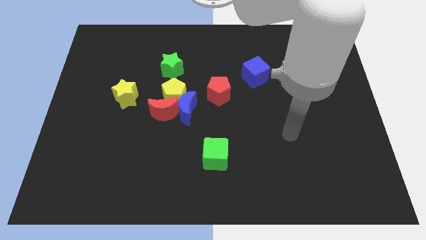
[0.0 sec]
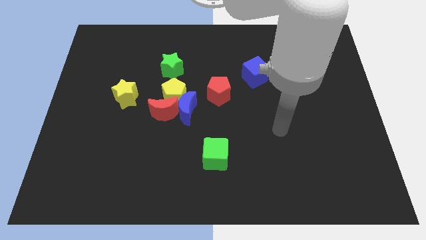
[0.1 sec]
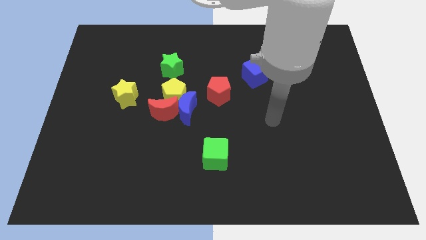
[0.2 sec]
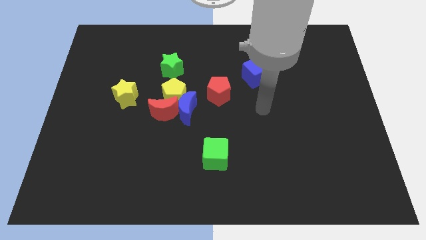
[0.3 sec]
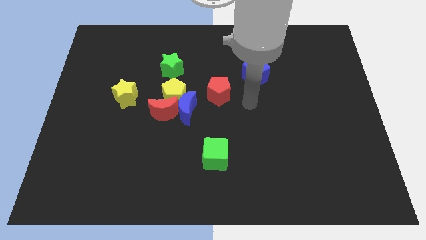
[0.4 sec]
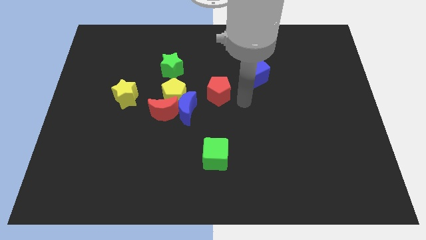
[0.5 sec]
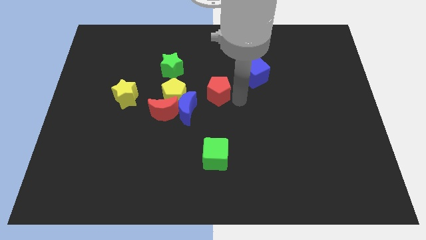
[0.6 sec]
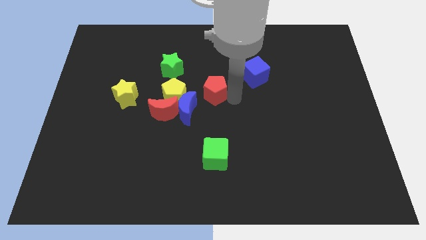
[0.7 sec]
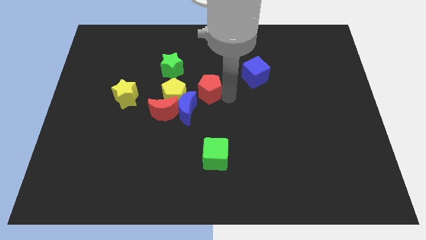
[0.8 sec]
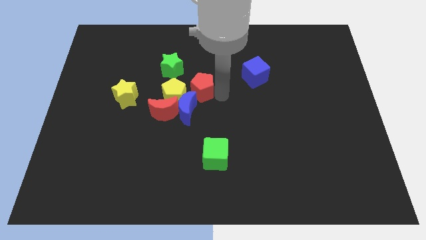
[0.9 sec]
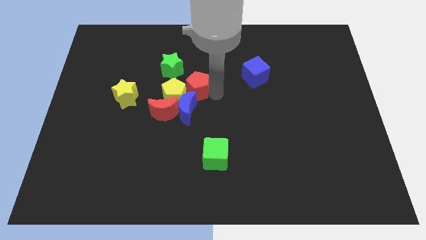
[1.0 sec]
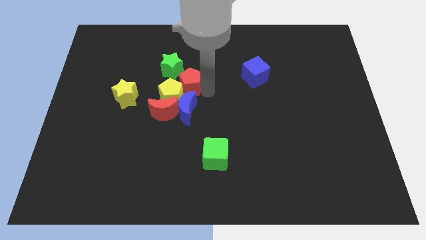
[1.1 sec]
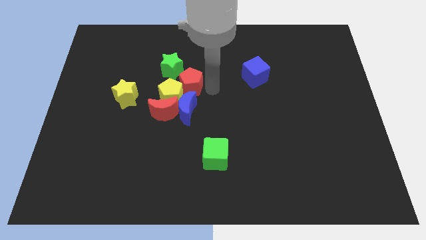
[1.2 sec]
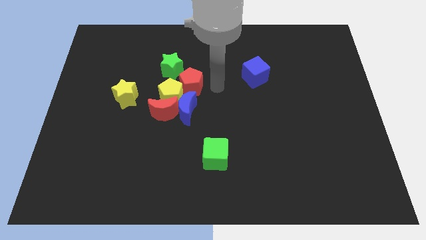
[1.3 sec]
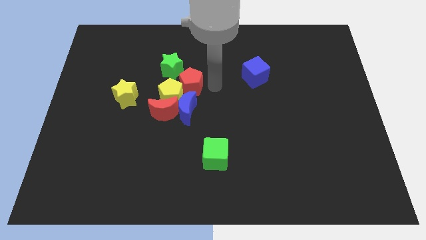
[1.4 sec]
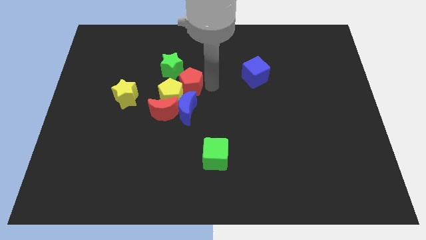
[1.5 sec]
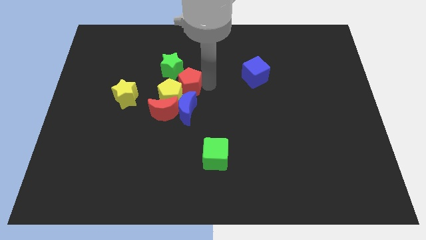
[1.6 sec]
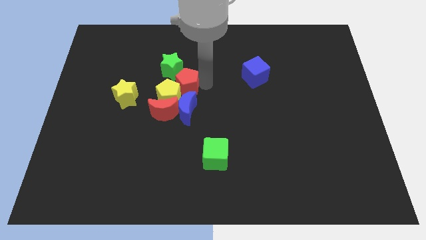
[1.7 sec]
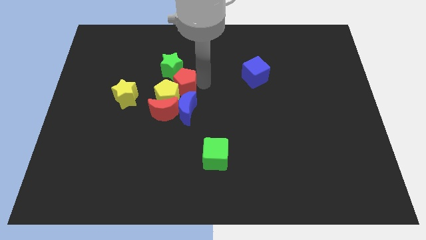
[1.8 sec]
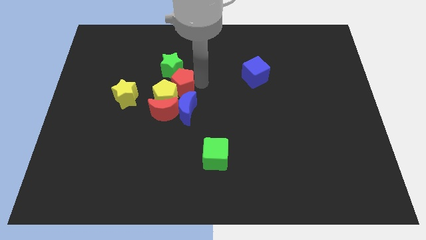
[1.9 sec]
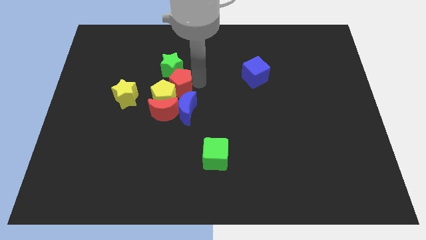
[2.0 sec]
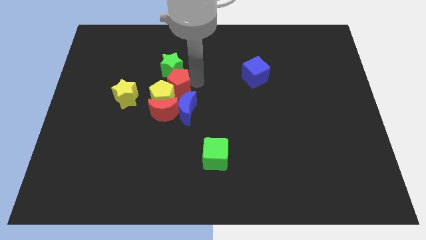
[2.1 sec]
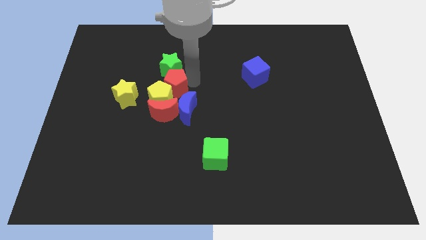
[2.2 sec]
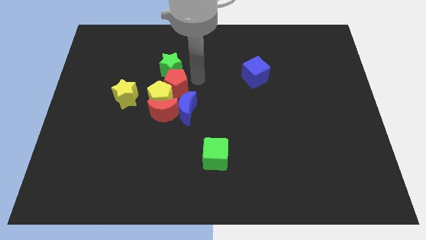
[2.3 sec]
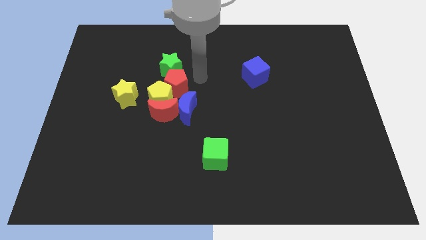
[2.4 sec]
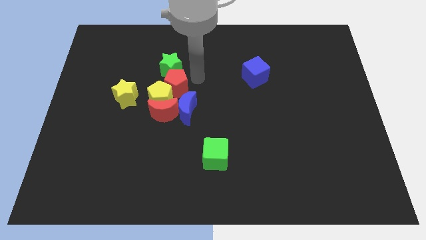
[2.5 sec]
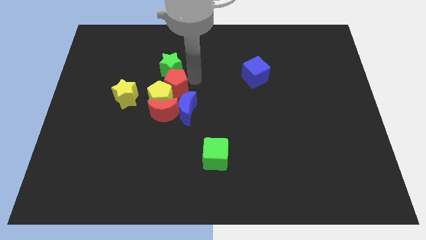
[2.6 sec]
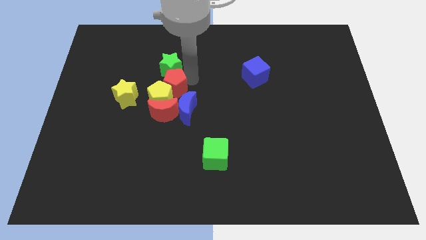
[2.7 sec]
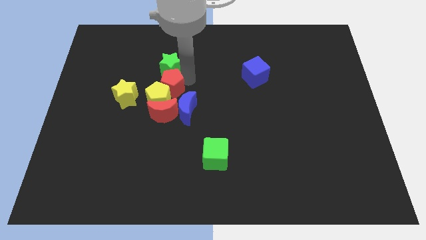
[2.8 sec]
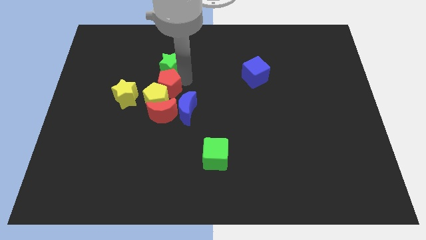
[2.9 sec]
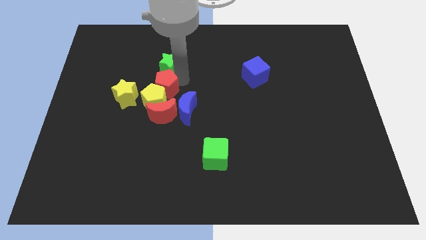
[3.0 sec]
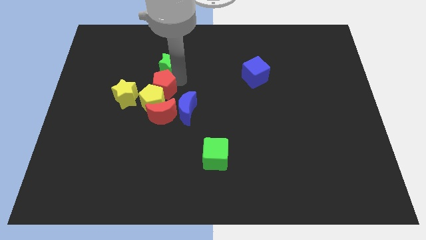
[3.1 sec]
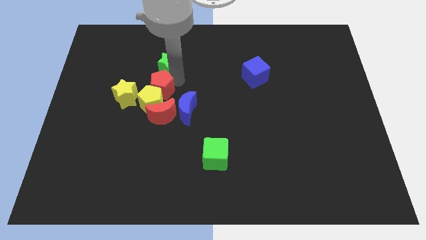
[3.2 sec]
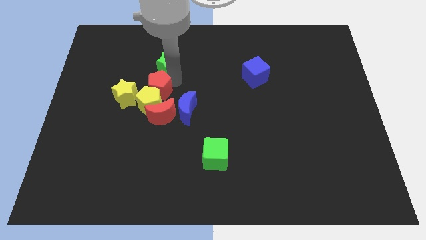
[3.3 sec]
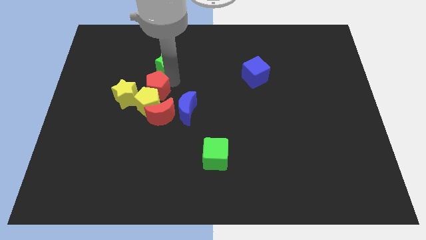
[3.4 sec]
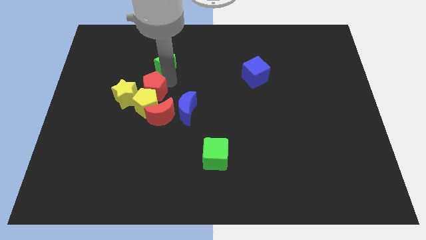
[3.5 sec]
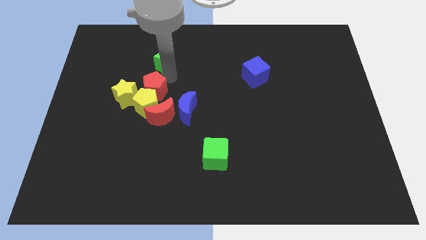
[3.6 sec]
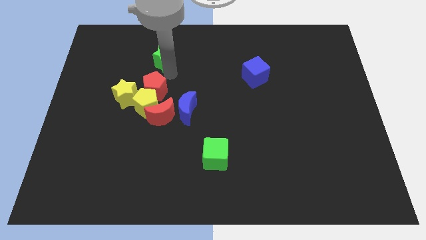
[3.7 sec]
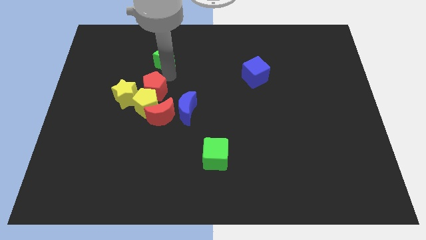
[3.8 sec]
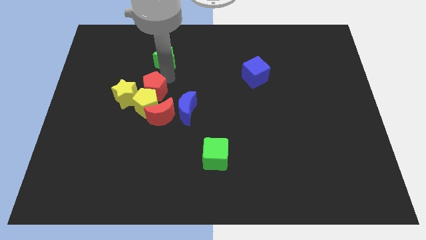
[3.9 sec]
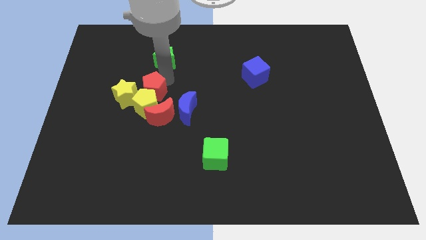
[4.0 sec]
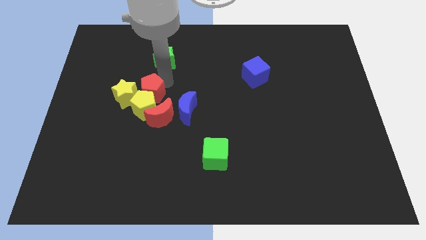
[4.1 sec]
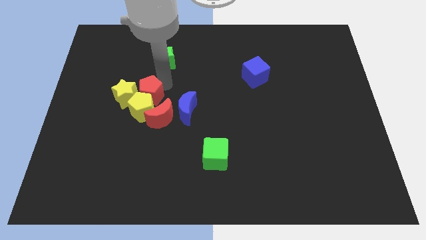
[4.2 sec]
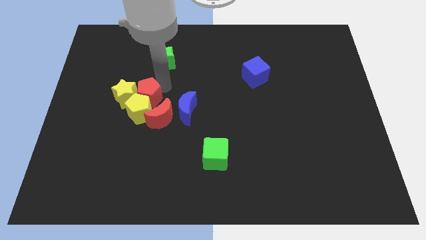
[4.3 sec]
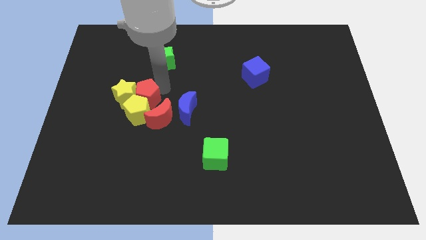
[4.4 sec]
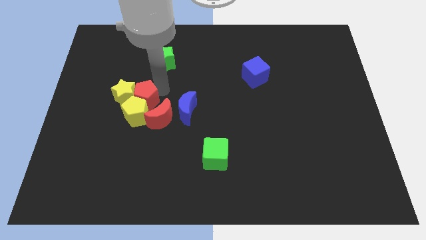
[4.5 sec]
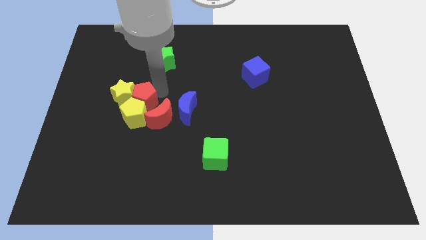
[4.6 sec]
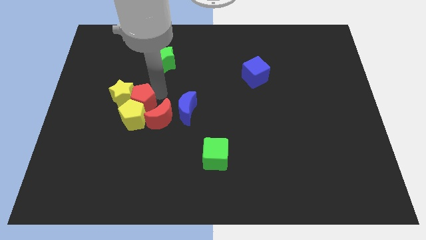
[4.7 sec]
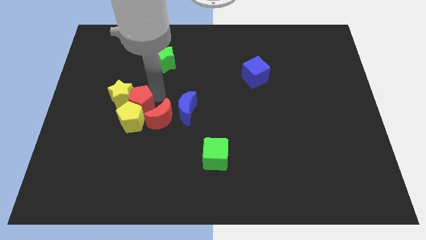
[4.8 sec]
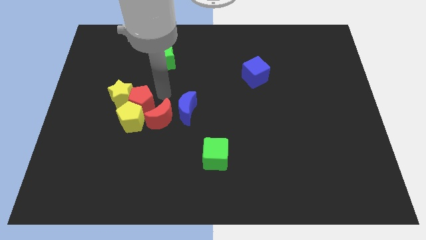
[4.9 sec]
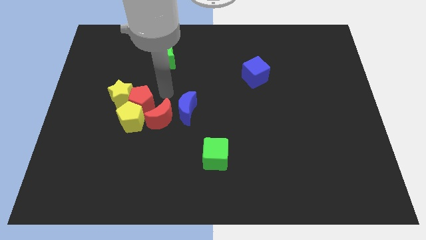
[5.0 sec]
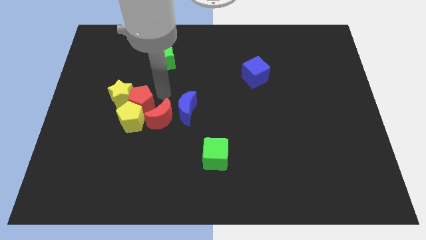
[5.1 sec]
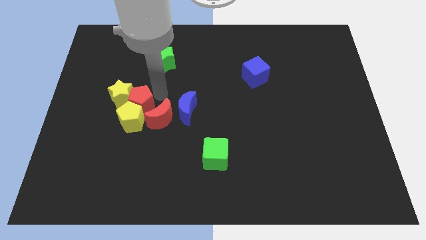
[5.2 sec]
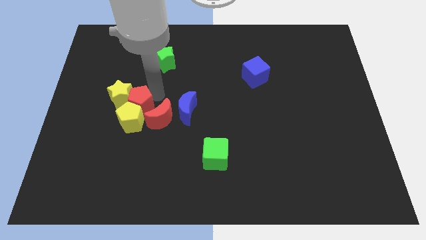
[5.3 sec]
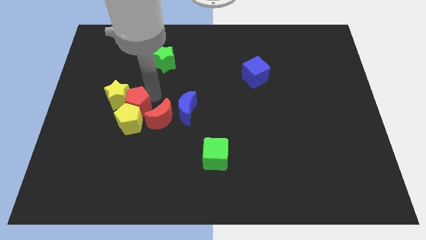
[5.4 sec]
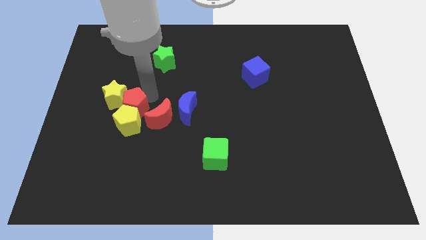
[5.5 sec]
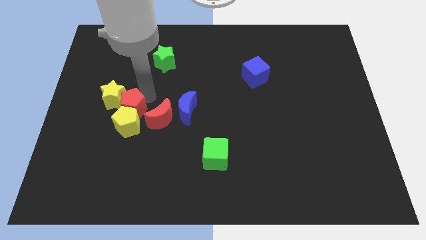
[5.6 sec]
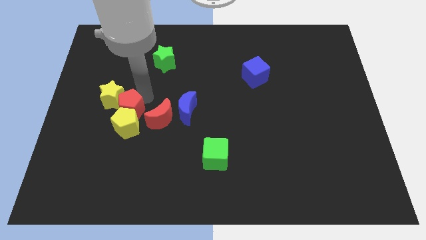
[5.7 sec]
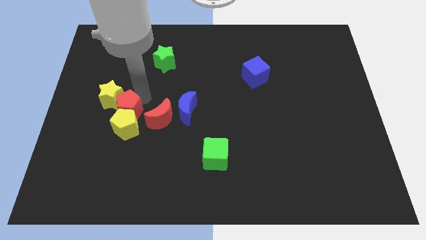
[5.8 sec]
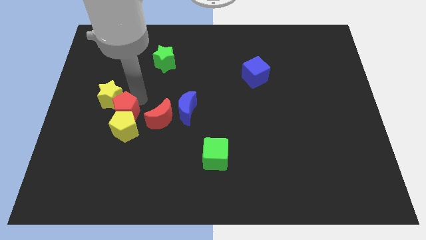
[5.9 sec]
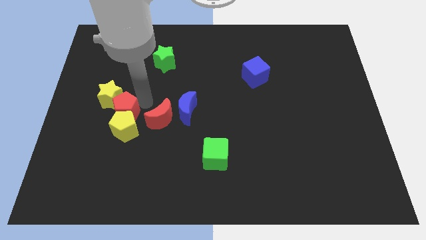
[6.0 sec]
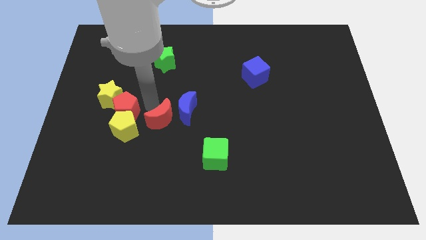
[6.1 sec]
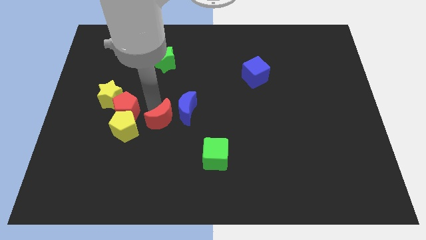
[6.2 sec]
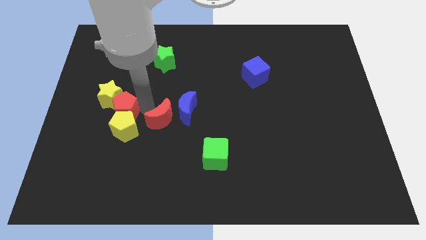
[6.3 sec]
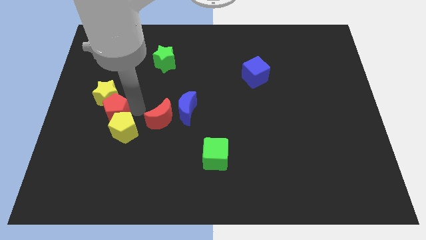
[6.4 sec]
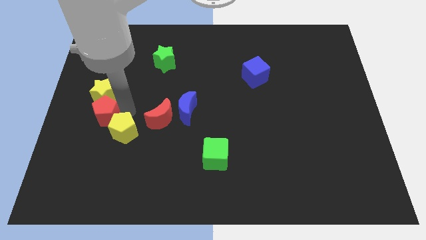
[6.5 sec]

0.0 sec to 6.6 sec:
push the red pentagon to the bottom left side of the yellow star

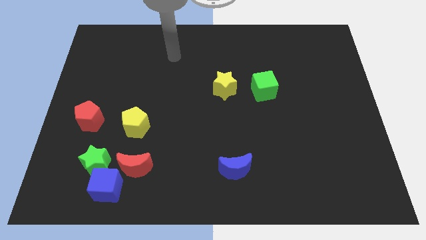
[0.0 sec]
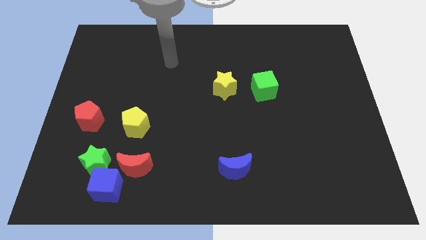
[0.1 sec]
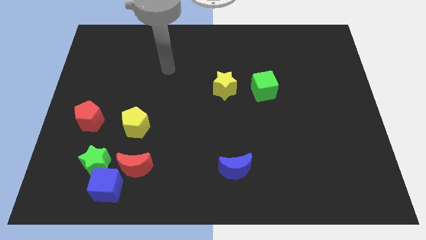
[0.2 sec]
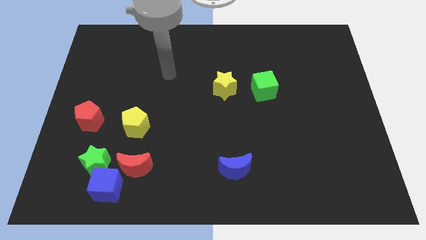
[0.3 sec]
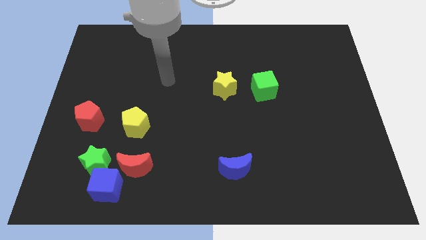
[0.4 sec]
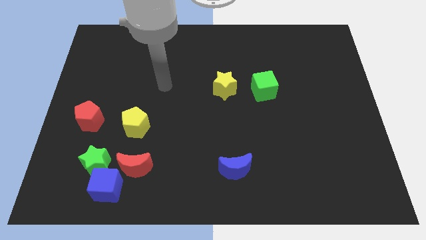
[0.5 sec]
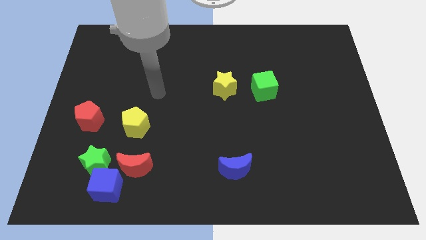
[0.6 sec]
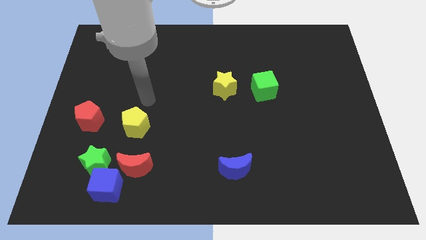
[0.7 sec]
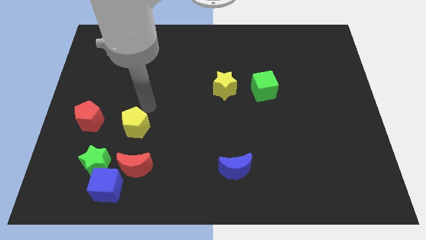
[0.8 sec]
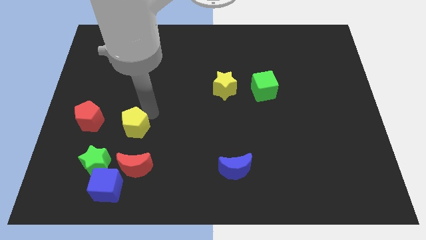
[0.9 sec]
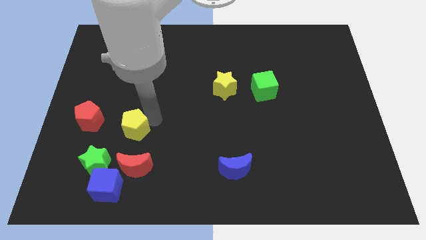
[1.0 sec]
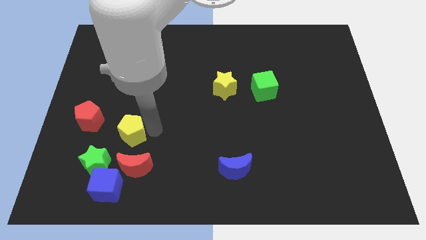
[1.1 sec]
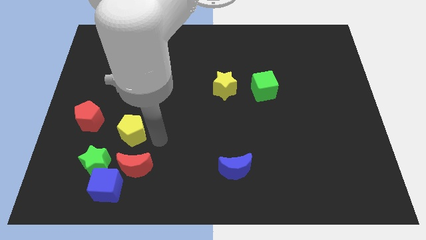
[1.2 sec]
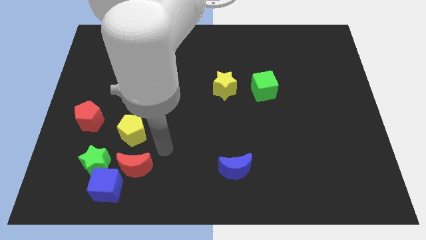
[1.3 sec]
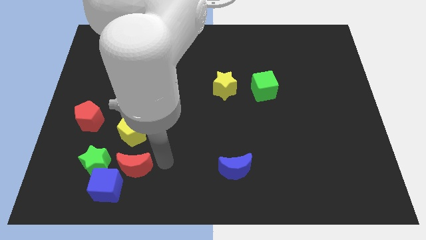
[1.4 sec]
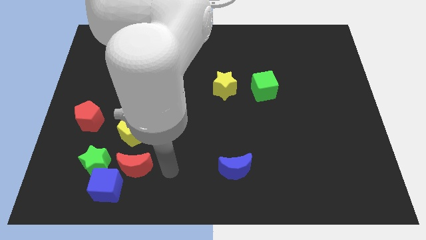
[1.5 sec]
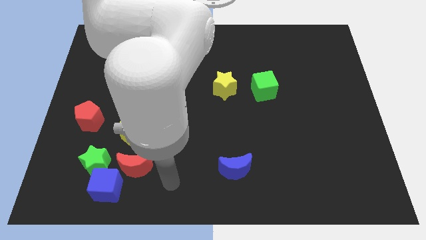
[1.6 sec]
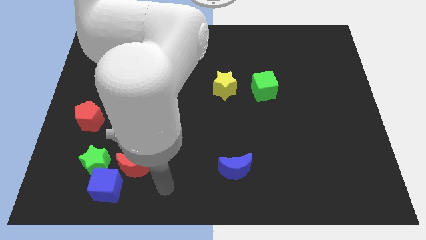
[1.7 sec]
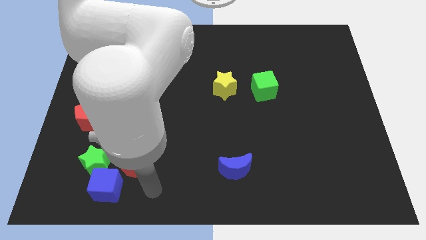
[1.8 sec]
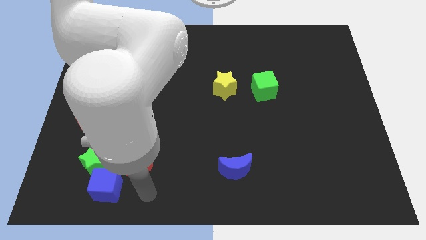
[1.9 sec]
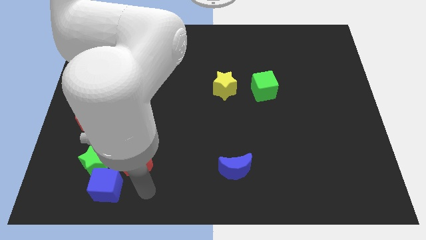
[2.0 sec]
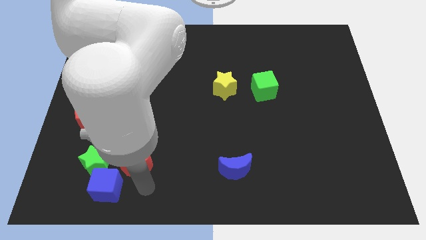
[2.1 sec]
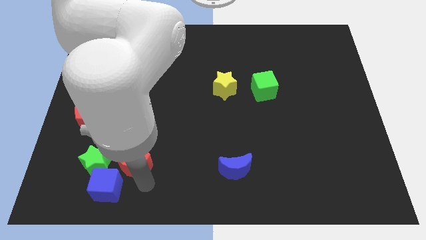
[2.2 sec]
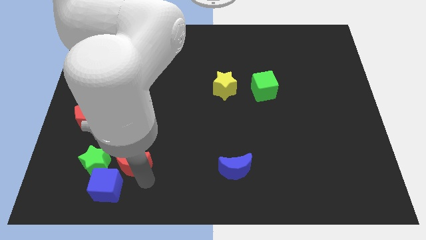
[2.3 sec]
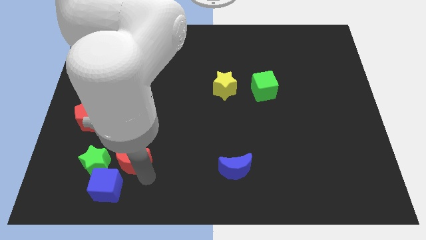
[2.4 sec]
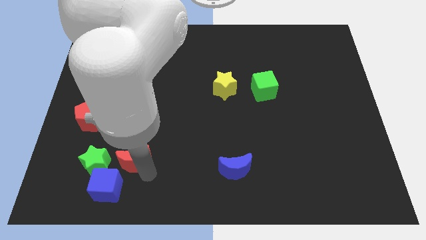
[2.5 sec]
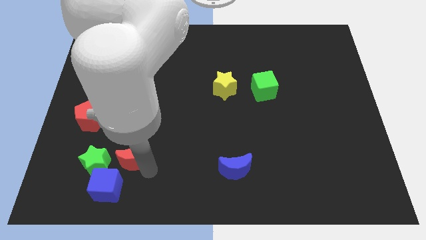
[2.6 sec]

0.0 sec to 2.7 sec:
slide the red moon to the top right of the green star
